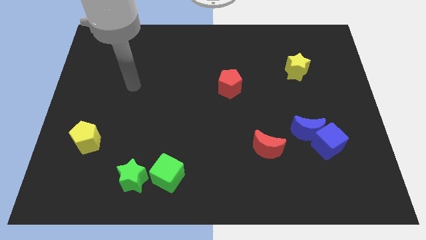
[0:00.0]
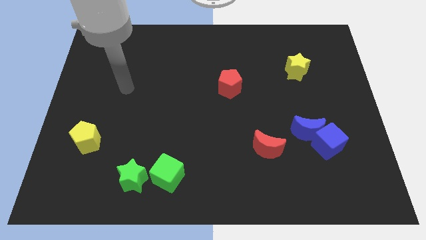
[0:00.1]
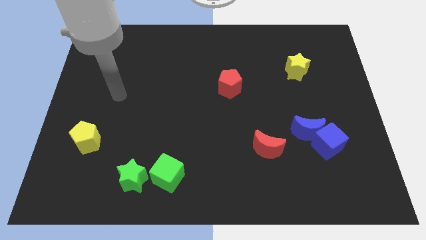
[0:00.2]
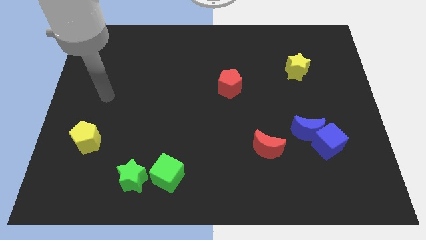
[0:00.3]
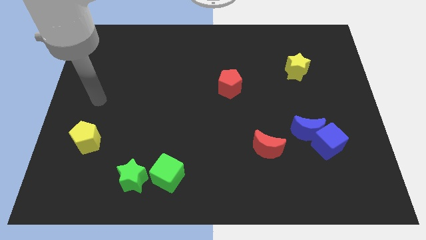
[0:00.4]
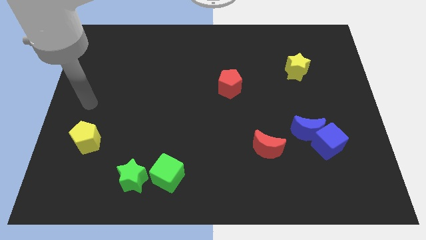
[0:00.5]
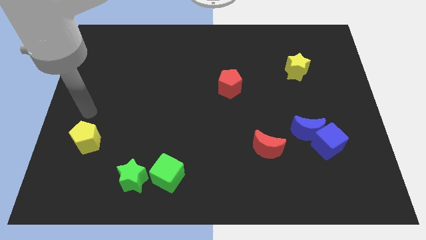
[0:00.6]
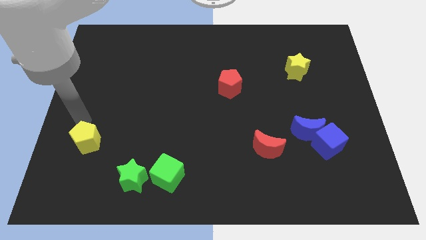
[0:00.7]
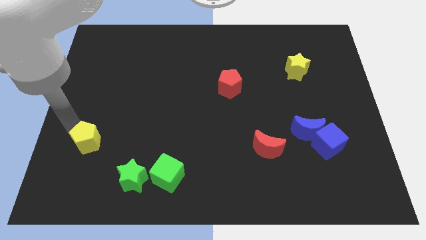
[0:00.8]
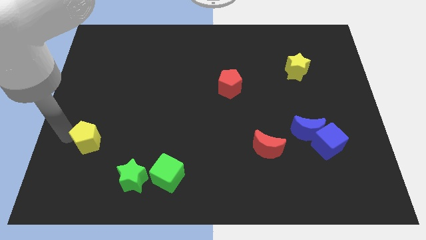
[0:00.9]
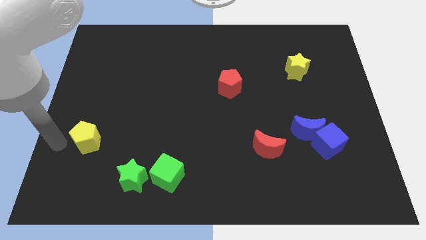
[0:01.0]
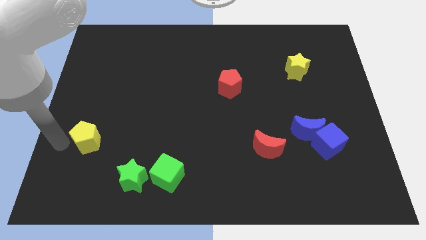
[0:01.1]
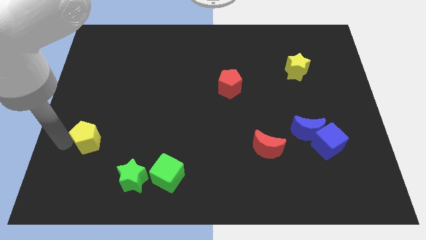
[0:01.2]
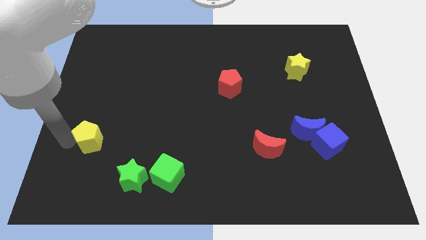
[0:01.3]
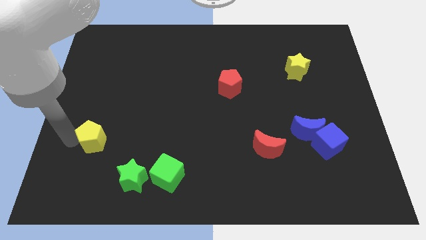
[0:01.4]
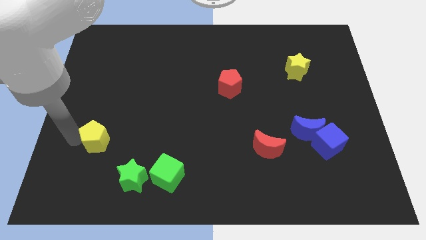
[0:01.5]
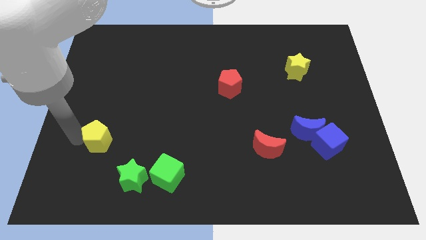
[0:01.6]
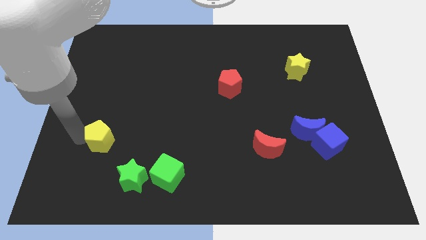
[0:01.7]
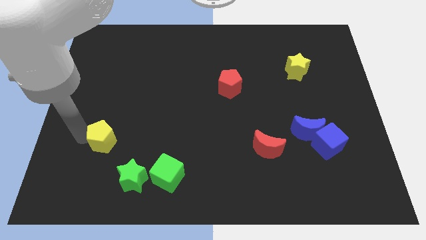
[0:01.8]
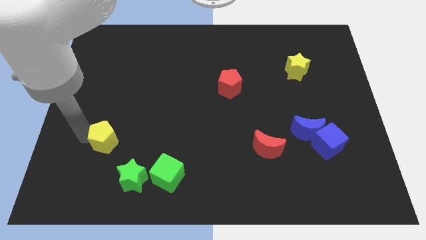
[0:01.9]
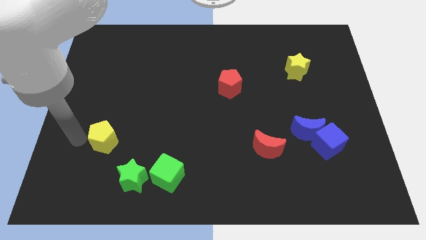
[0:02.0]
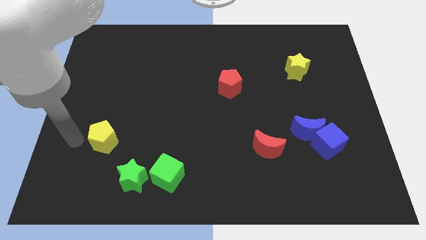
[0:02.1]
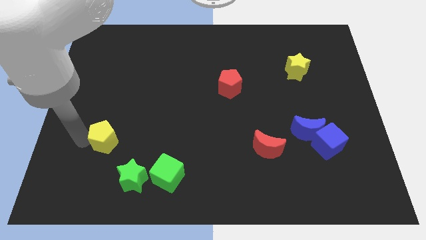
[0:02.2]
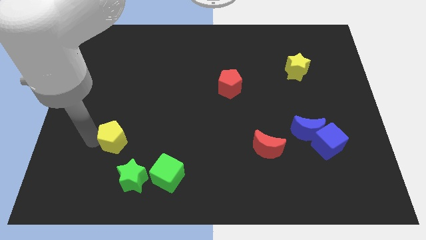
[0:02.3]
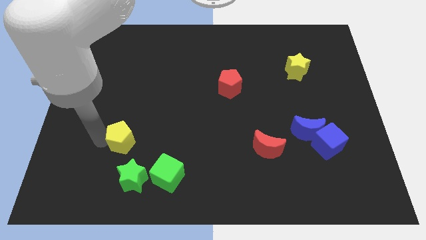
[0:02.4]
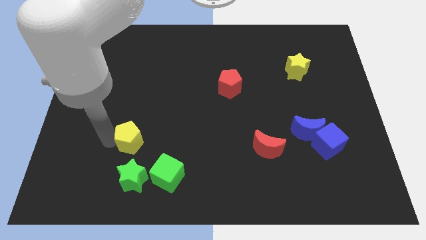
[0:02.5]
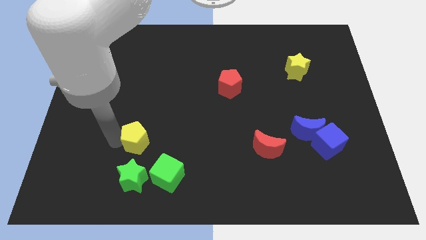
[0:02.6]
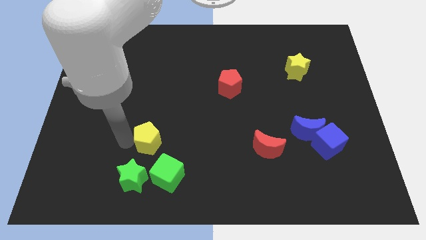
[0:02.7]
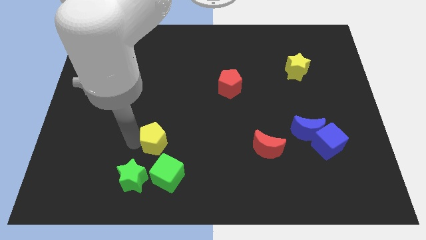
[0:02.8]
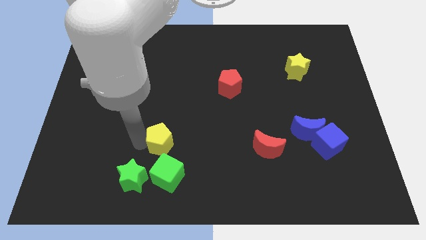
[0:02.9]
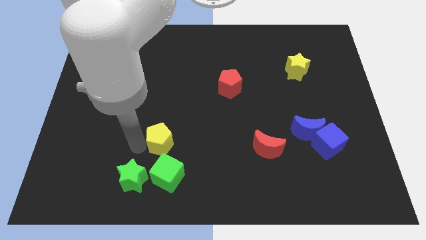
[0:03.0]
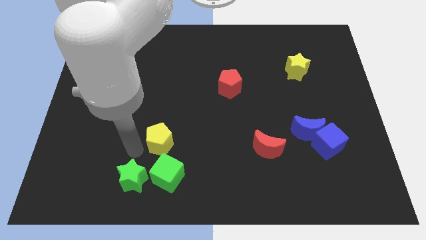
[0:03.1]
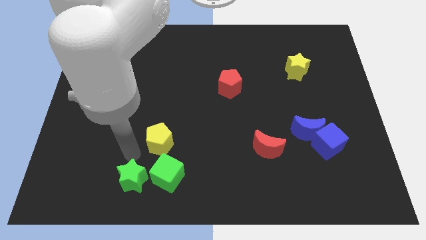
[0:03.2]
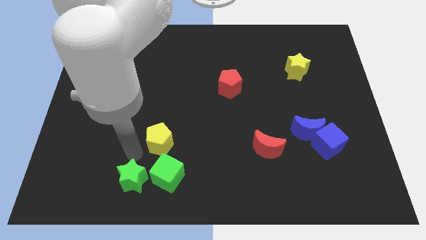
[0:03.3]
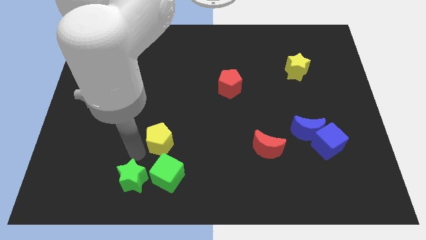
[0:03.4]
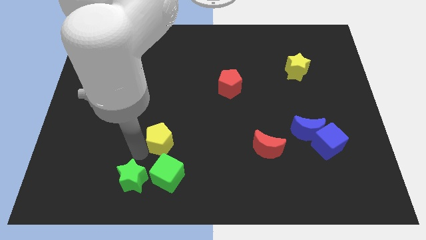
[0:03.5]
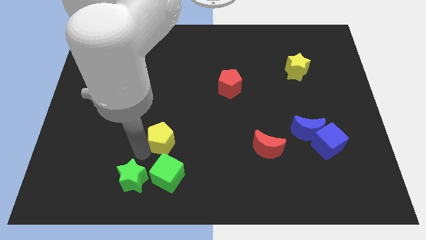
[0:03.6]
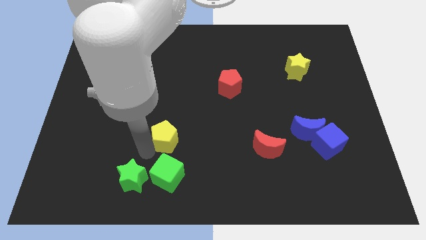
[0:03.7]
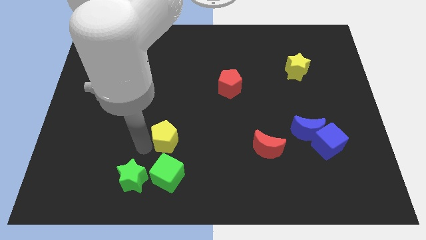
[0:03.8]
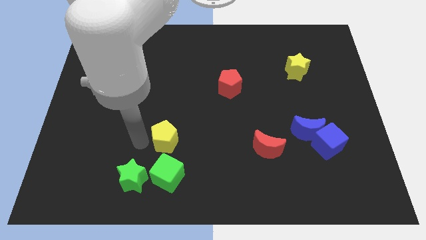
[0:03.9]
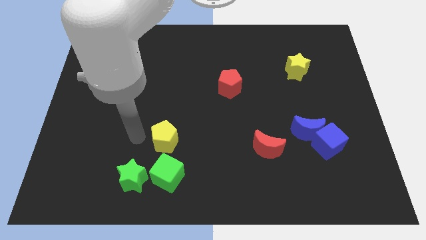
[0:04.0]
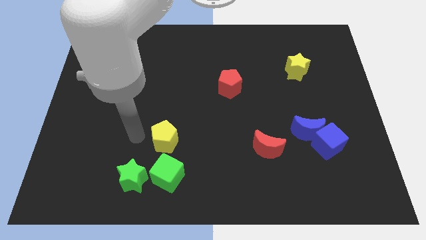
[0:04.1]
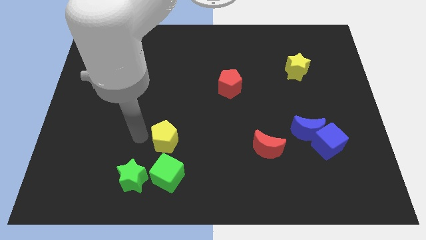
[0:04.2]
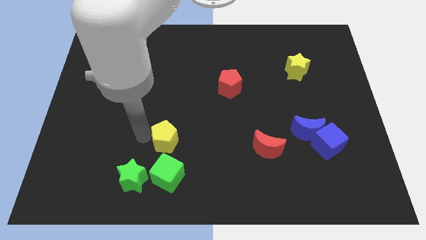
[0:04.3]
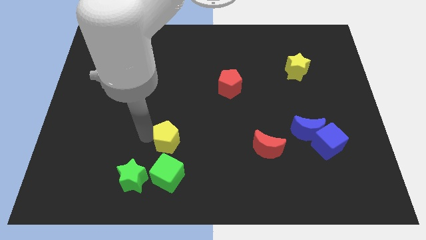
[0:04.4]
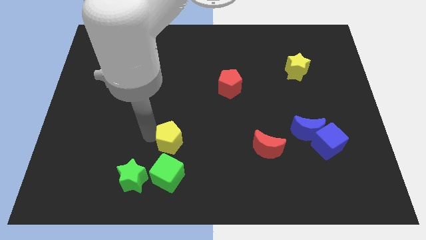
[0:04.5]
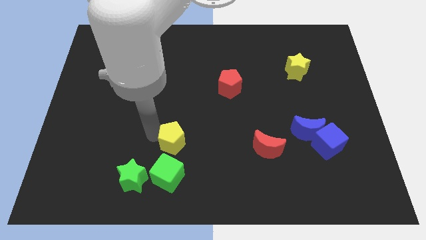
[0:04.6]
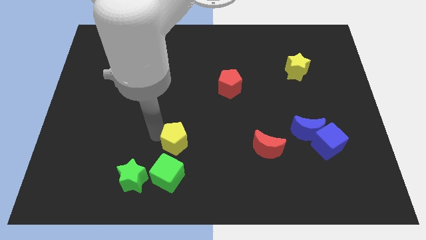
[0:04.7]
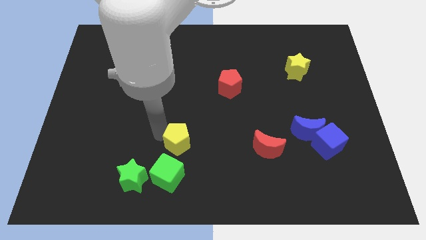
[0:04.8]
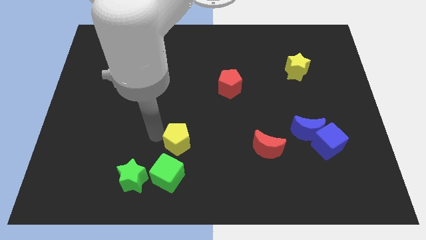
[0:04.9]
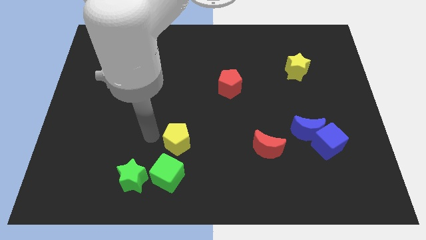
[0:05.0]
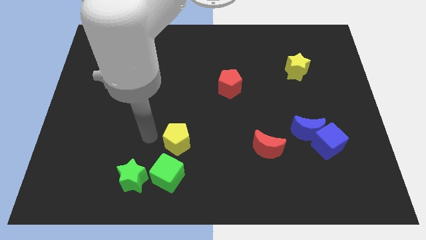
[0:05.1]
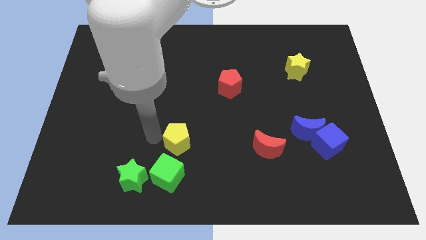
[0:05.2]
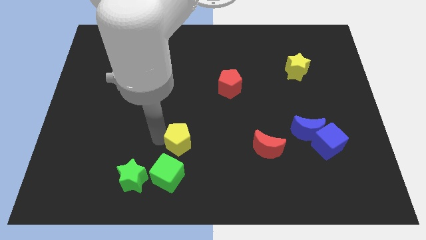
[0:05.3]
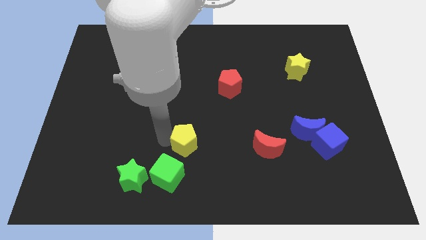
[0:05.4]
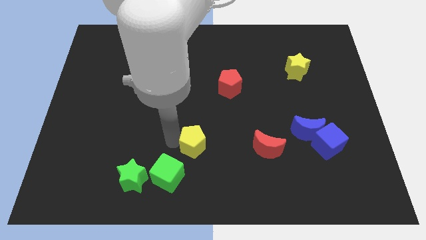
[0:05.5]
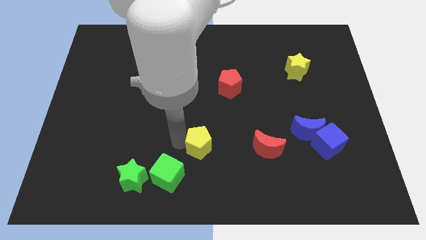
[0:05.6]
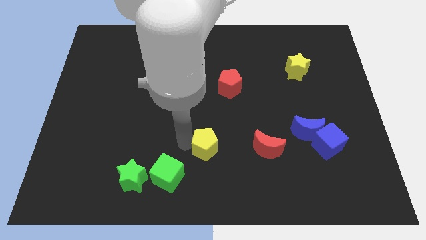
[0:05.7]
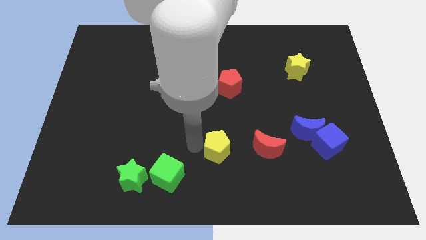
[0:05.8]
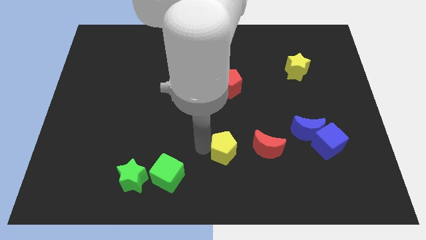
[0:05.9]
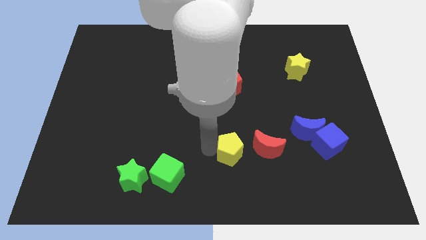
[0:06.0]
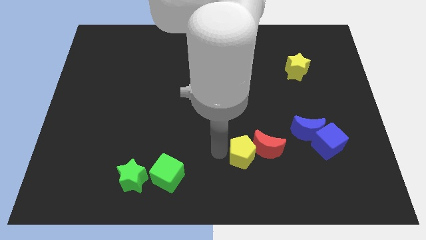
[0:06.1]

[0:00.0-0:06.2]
move the yellow pentagon next to the red moon
